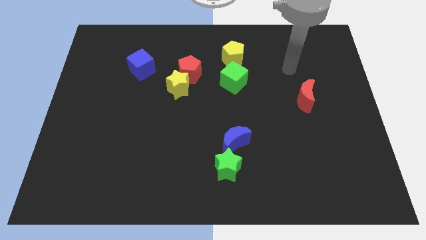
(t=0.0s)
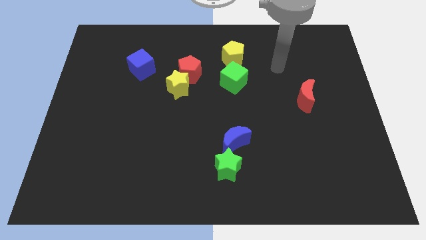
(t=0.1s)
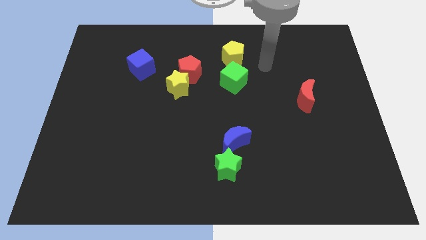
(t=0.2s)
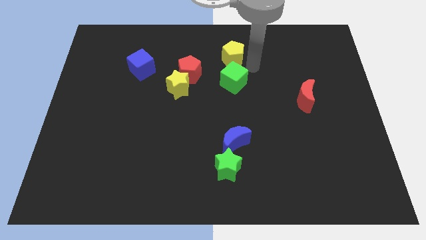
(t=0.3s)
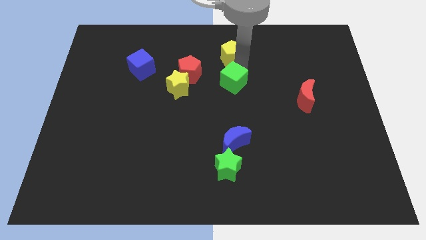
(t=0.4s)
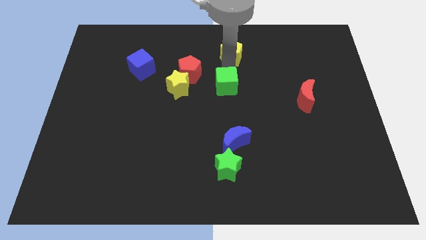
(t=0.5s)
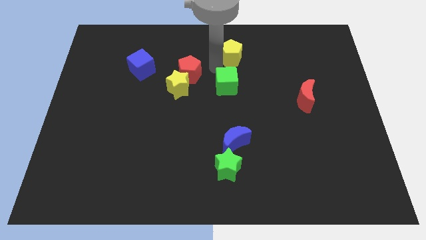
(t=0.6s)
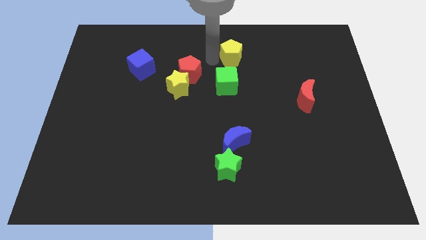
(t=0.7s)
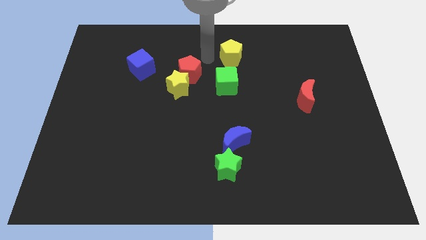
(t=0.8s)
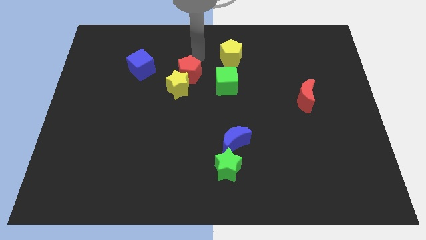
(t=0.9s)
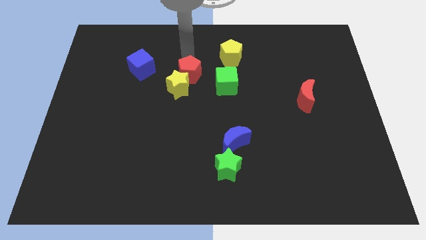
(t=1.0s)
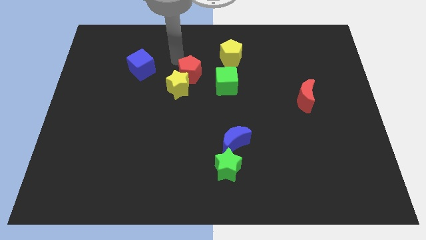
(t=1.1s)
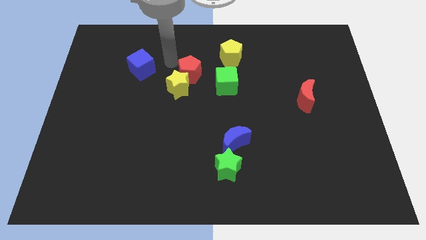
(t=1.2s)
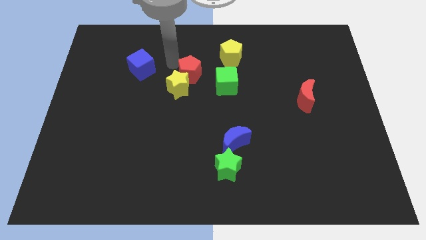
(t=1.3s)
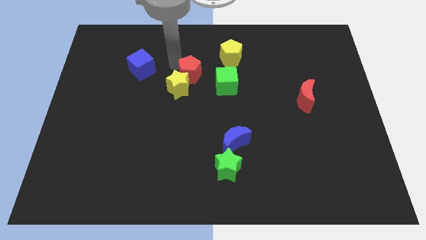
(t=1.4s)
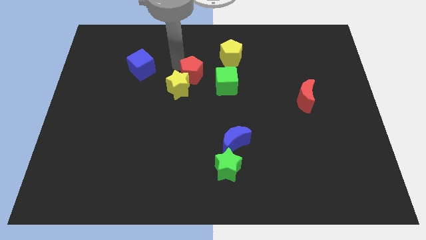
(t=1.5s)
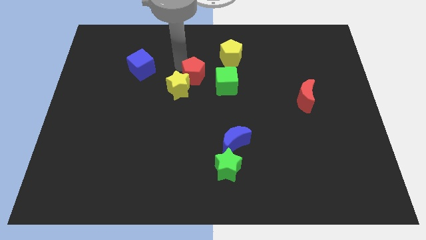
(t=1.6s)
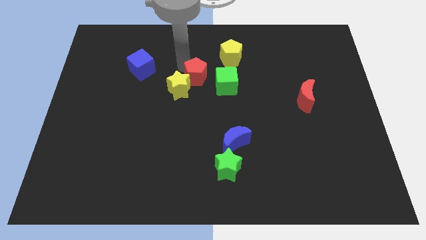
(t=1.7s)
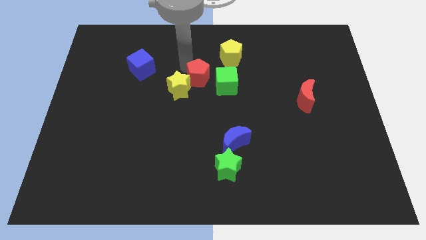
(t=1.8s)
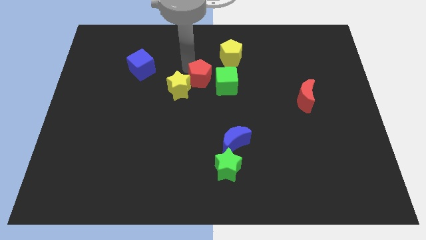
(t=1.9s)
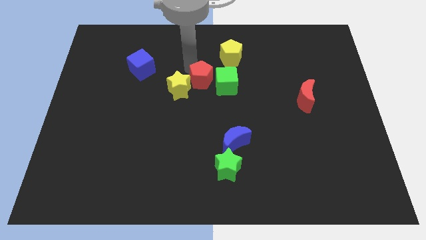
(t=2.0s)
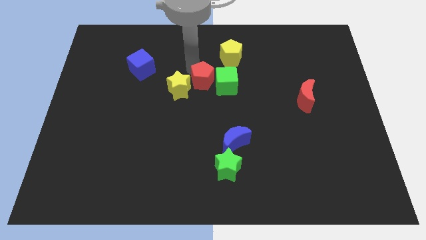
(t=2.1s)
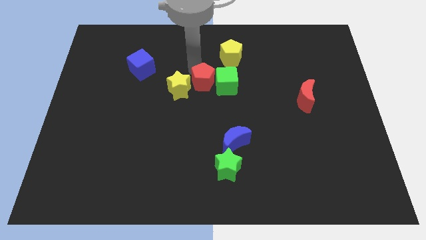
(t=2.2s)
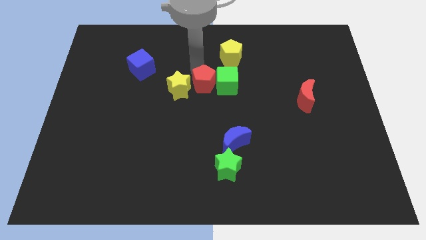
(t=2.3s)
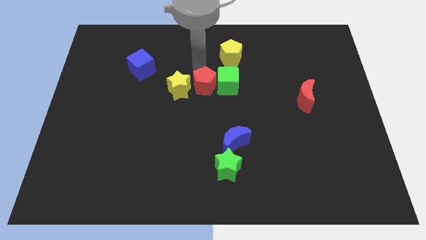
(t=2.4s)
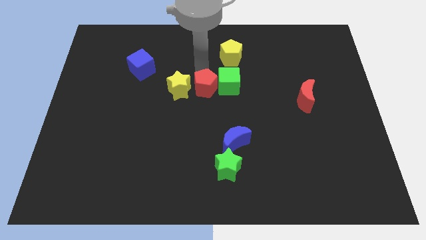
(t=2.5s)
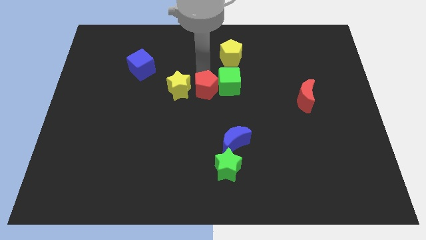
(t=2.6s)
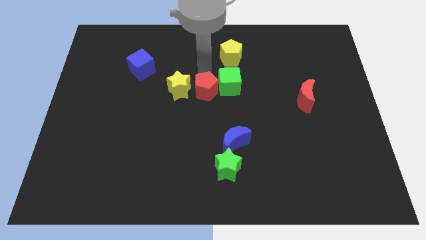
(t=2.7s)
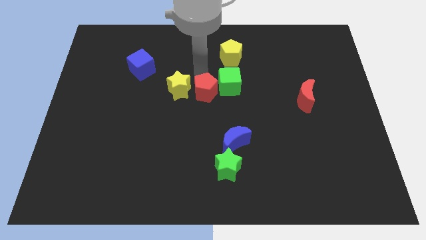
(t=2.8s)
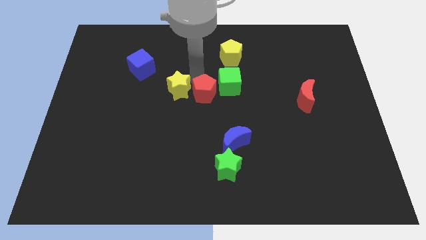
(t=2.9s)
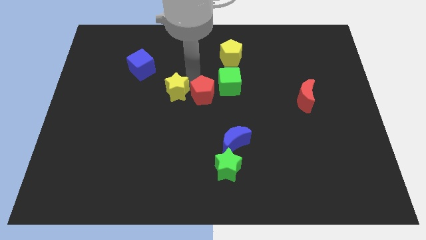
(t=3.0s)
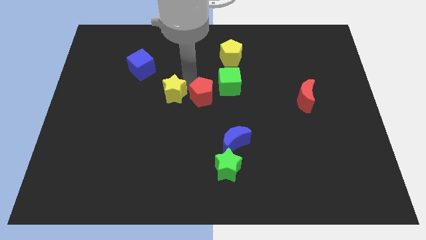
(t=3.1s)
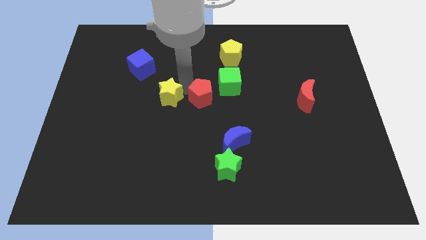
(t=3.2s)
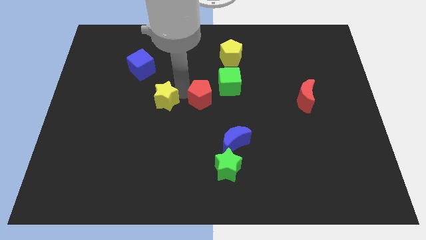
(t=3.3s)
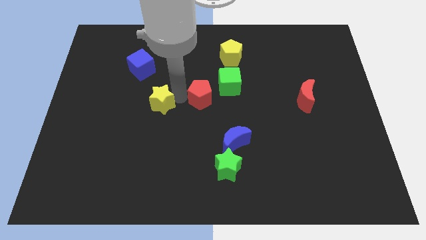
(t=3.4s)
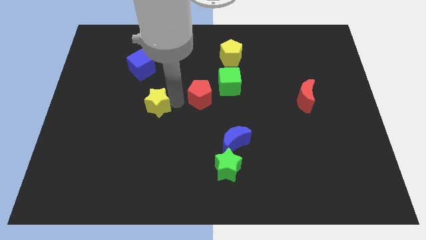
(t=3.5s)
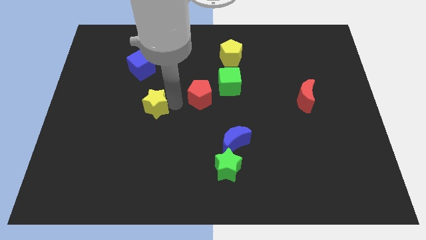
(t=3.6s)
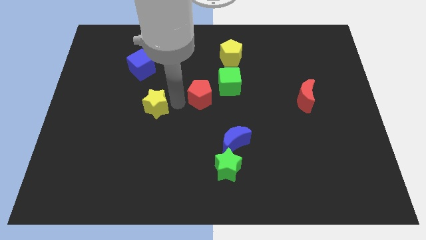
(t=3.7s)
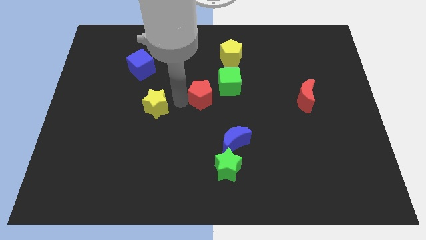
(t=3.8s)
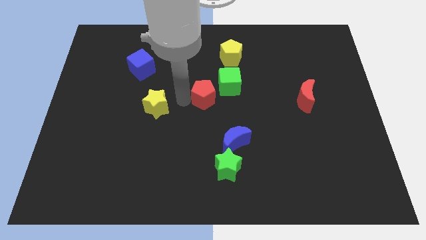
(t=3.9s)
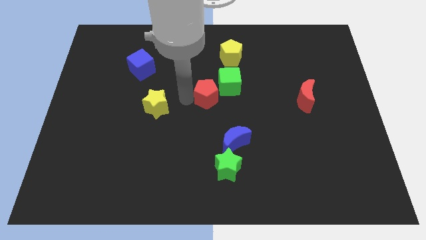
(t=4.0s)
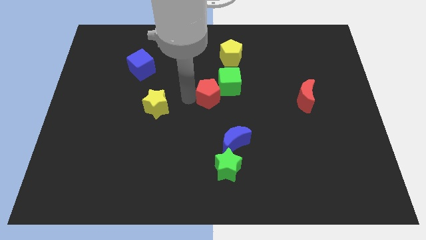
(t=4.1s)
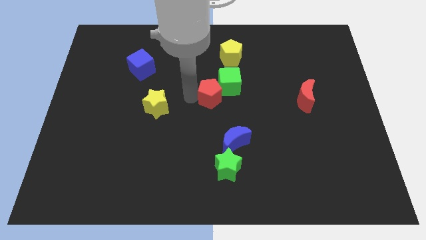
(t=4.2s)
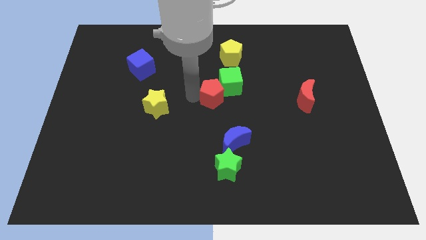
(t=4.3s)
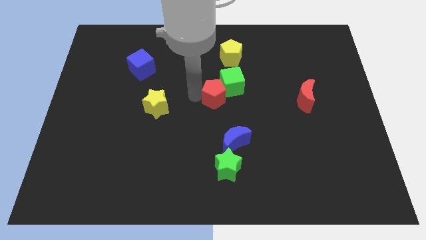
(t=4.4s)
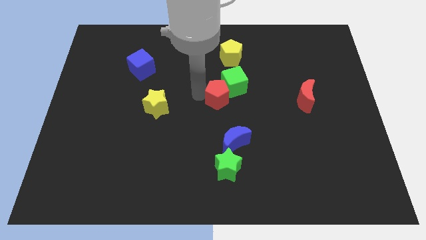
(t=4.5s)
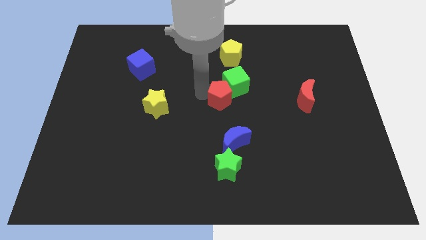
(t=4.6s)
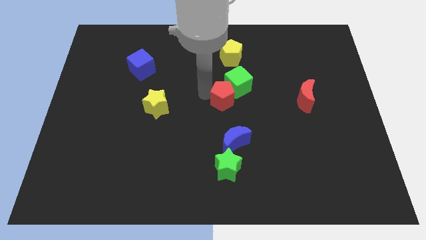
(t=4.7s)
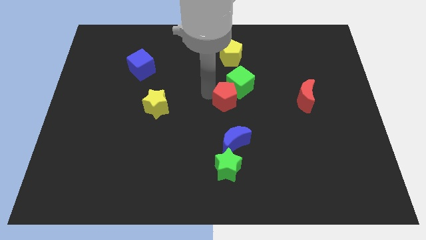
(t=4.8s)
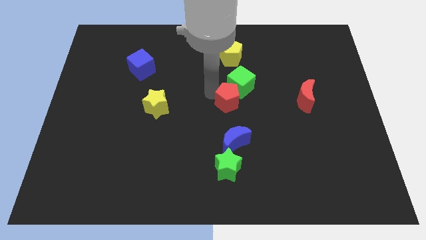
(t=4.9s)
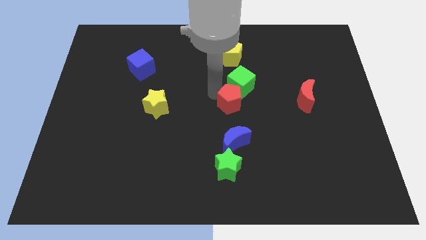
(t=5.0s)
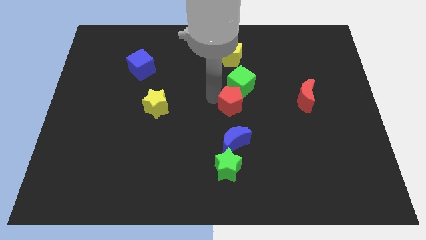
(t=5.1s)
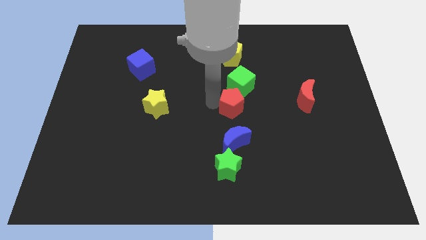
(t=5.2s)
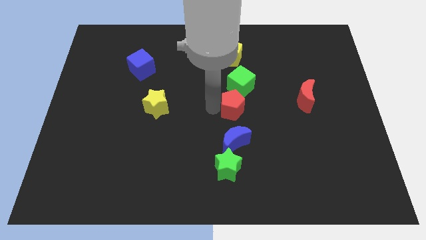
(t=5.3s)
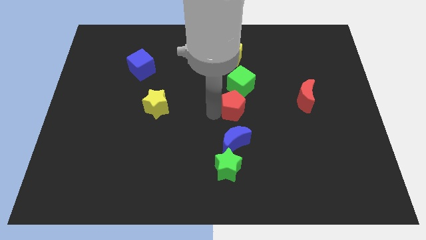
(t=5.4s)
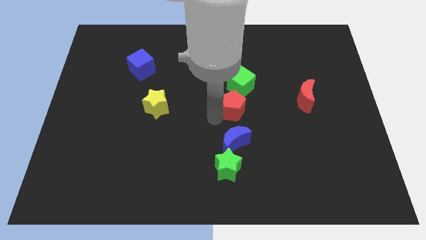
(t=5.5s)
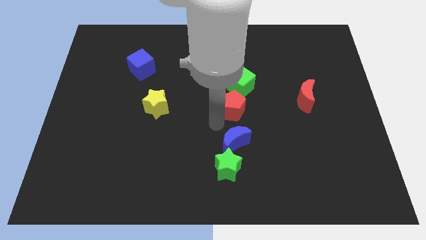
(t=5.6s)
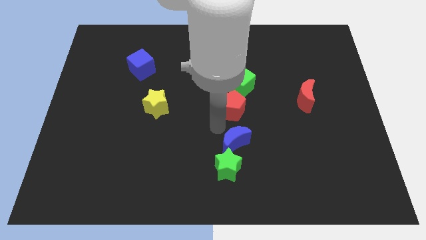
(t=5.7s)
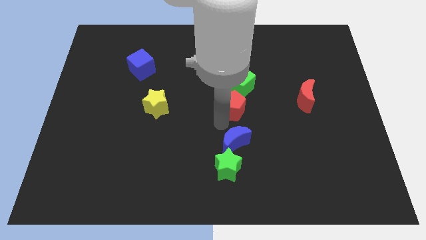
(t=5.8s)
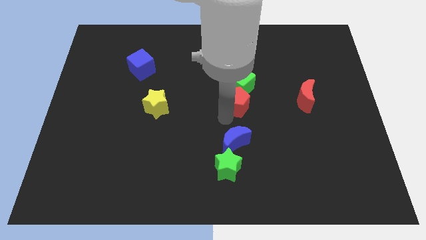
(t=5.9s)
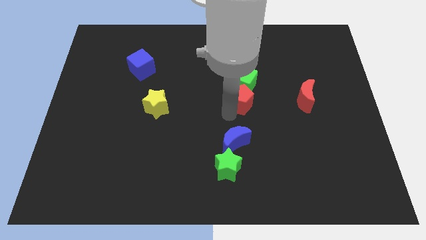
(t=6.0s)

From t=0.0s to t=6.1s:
move the red pentagon right a little bit

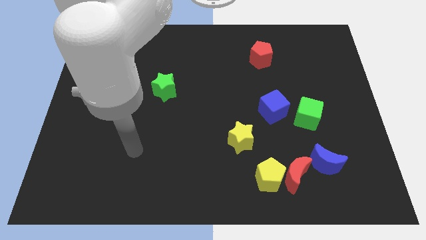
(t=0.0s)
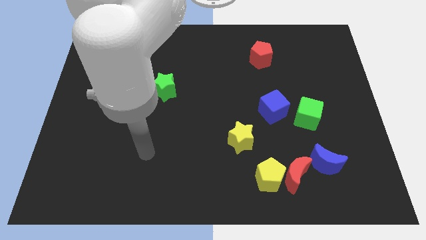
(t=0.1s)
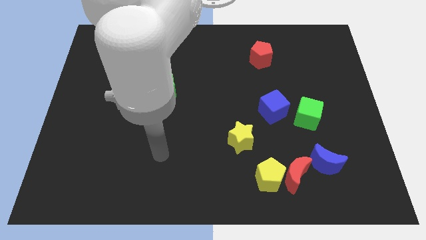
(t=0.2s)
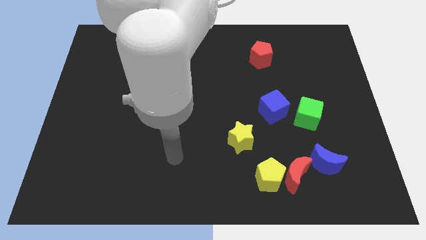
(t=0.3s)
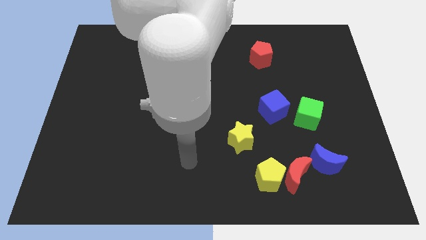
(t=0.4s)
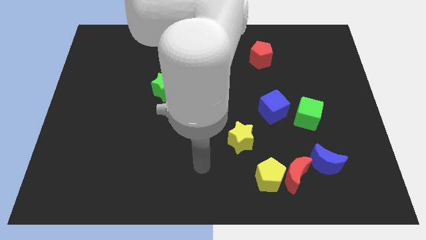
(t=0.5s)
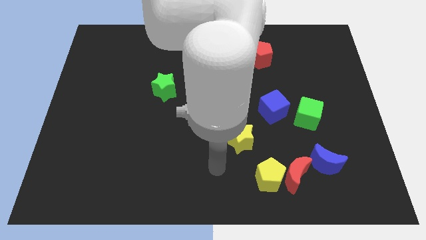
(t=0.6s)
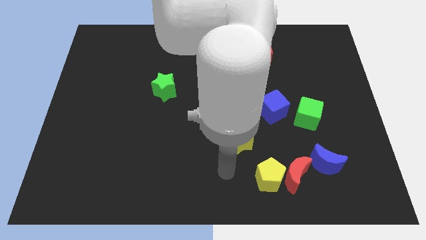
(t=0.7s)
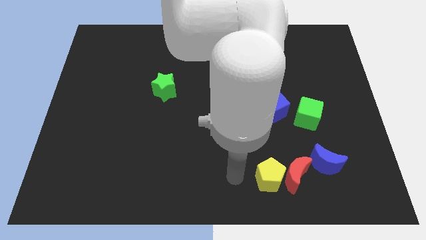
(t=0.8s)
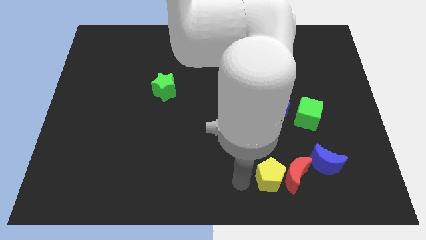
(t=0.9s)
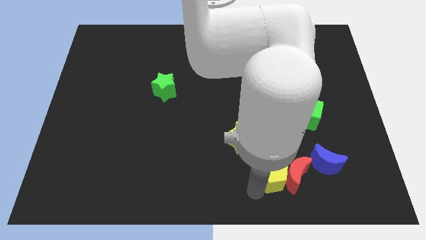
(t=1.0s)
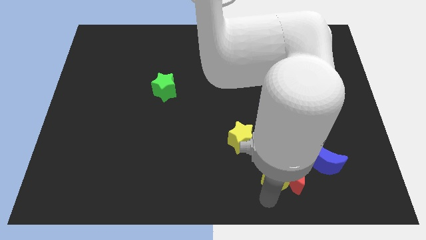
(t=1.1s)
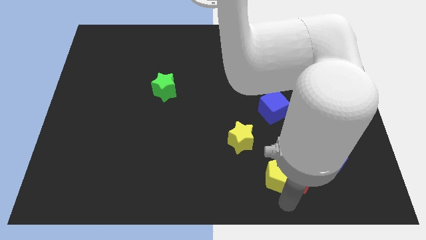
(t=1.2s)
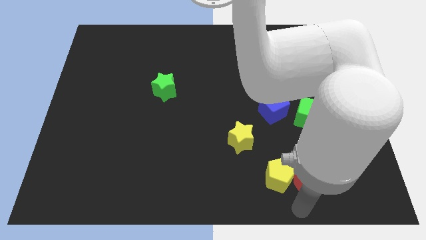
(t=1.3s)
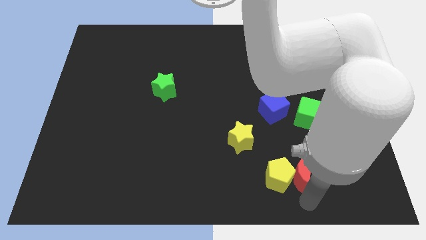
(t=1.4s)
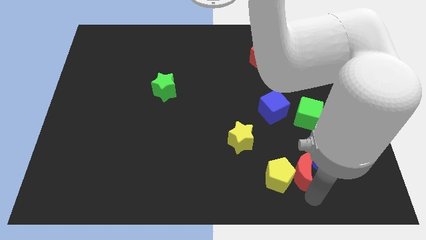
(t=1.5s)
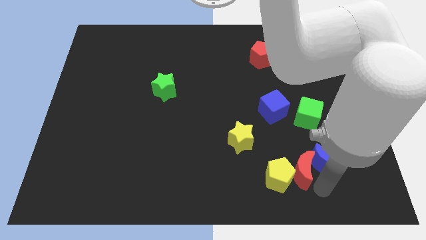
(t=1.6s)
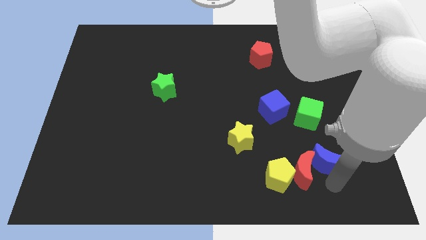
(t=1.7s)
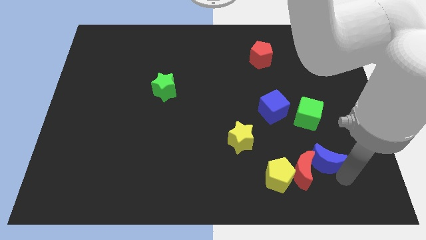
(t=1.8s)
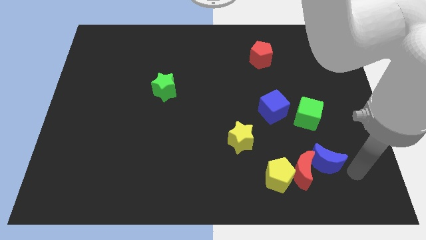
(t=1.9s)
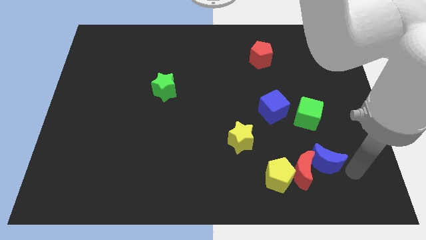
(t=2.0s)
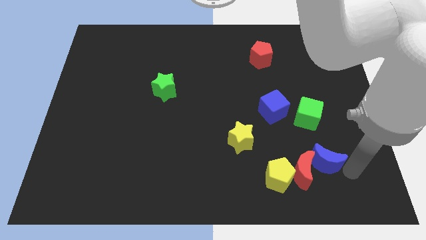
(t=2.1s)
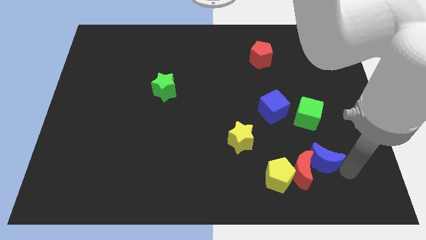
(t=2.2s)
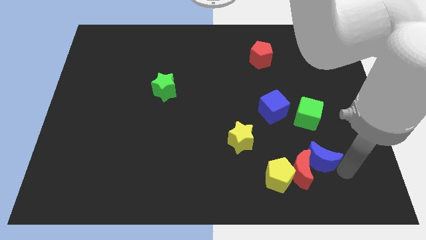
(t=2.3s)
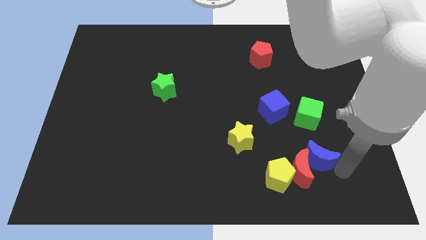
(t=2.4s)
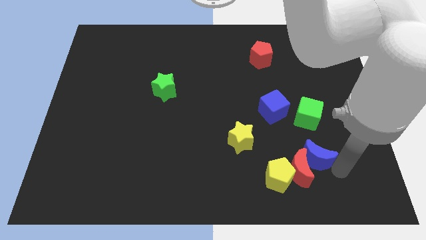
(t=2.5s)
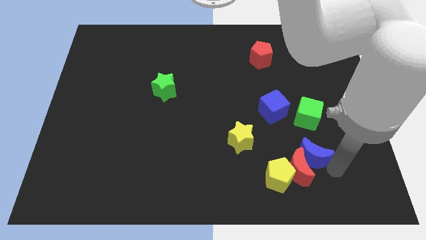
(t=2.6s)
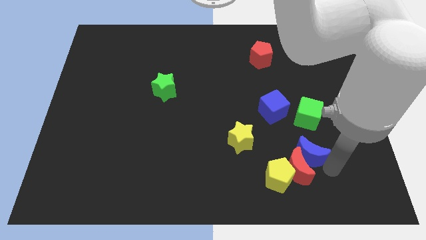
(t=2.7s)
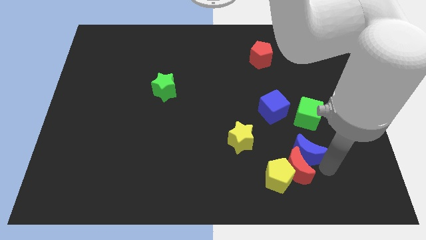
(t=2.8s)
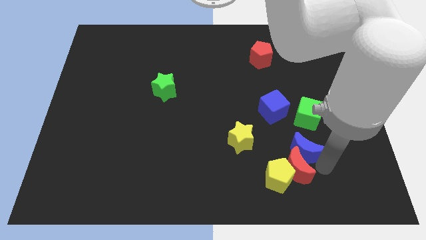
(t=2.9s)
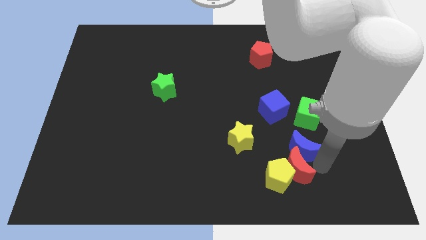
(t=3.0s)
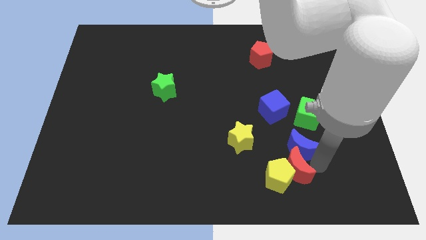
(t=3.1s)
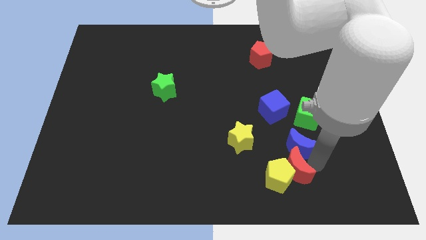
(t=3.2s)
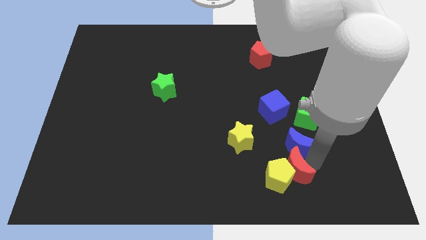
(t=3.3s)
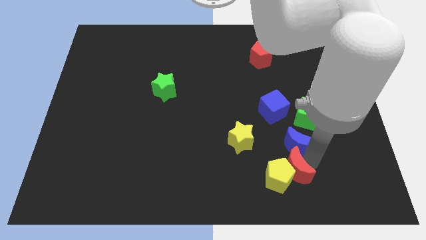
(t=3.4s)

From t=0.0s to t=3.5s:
slide the blue moon somewhat up and then left
